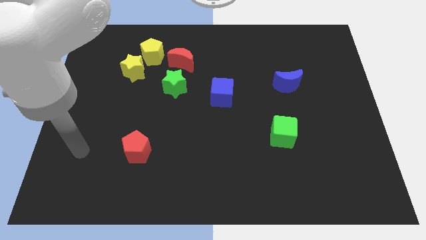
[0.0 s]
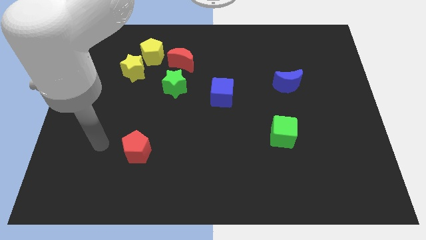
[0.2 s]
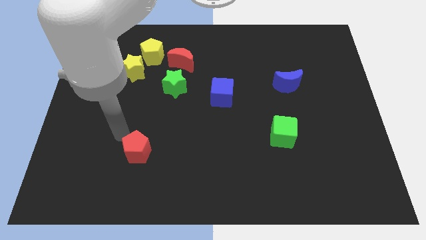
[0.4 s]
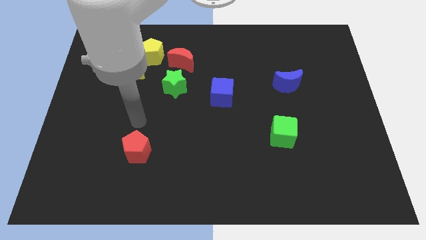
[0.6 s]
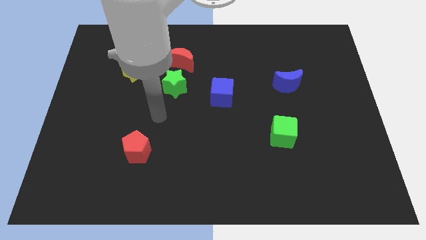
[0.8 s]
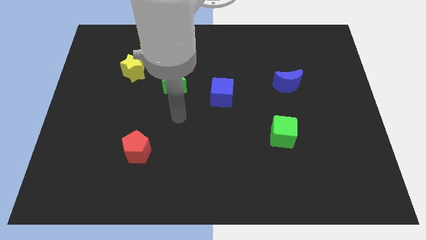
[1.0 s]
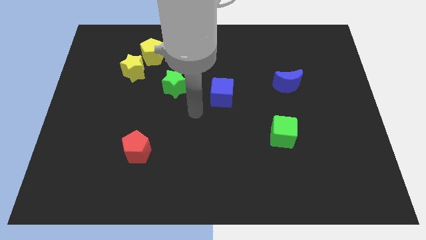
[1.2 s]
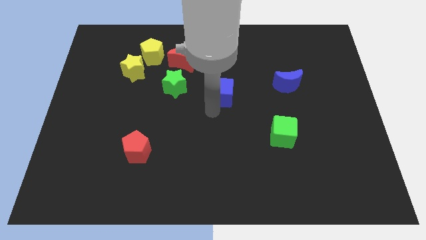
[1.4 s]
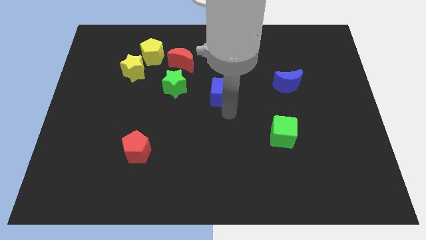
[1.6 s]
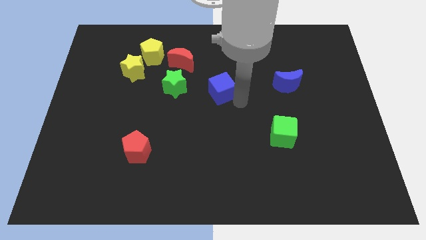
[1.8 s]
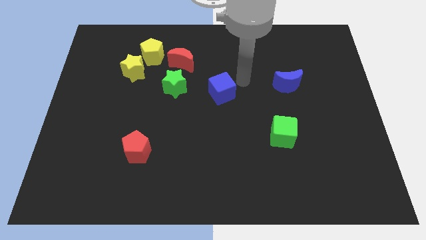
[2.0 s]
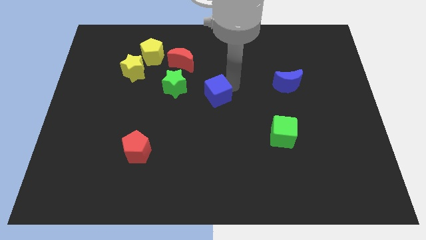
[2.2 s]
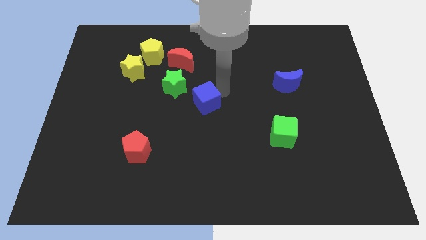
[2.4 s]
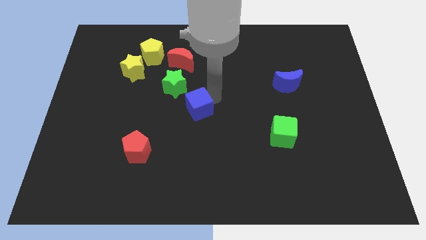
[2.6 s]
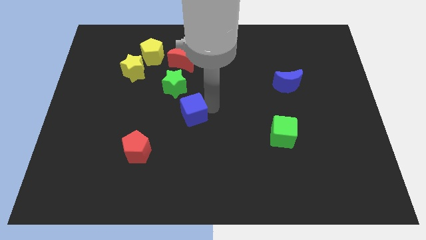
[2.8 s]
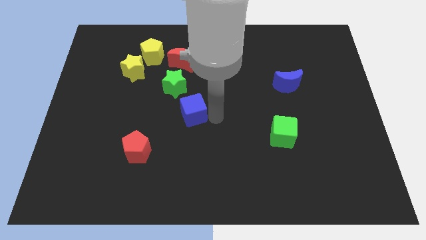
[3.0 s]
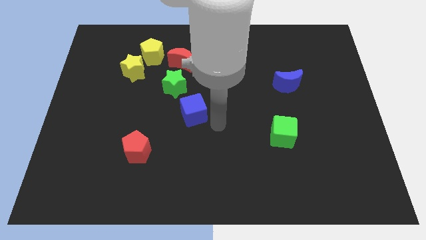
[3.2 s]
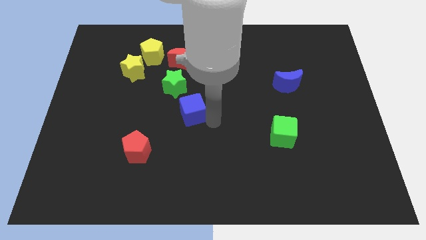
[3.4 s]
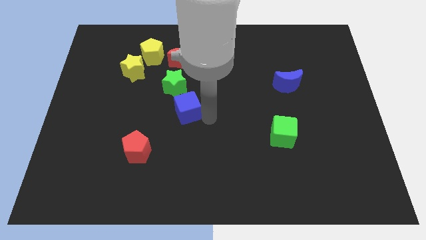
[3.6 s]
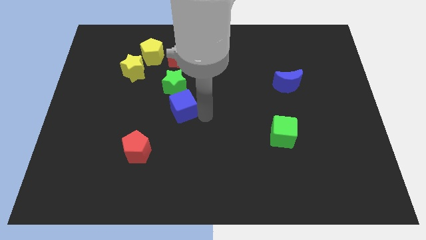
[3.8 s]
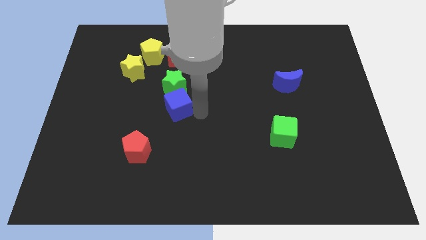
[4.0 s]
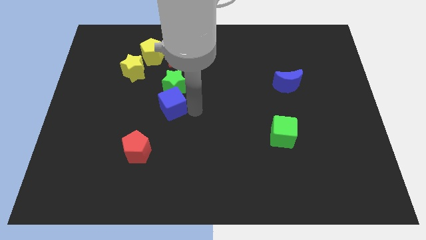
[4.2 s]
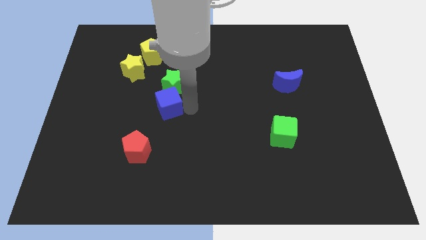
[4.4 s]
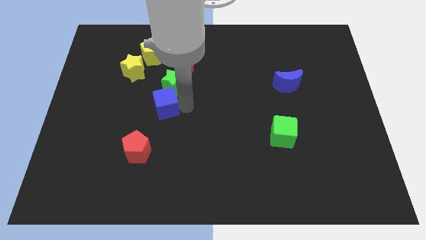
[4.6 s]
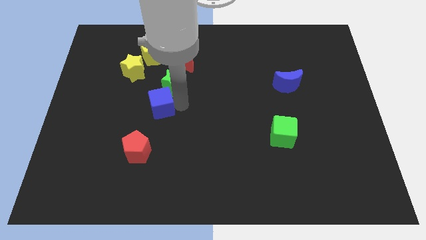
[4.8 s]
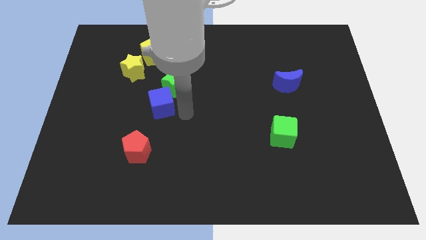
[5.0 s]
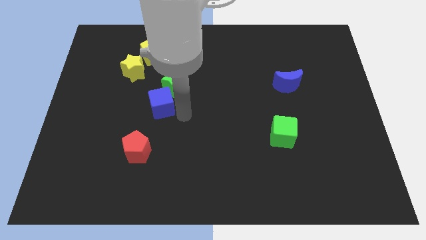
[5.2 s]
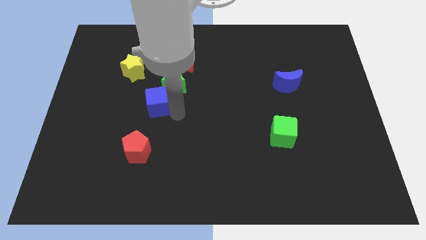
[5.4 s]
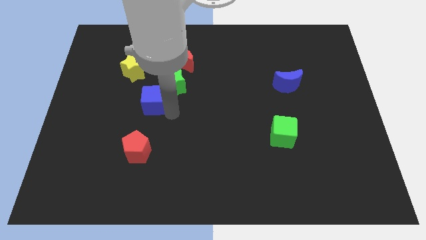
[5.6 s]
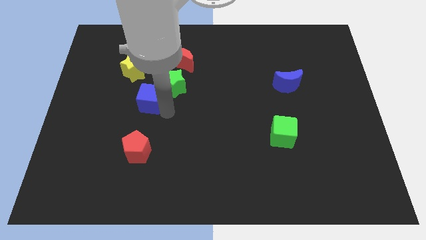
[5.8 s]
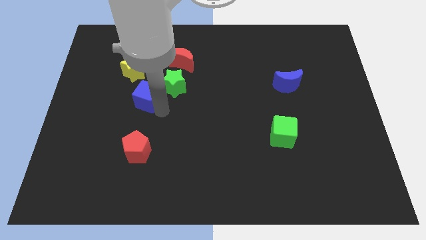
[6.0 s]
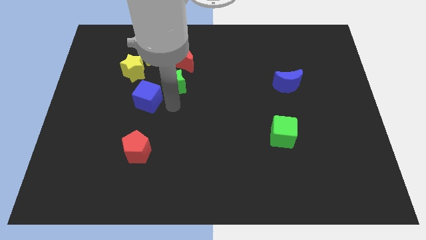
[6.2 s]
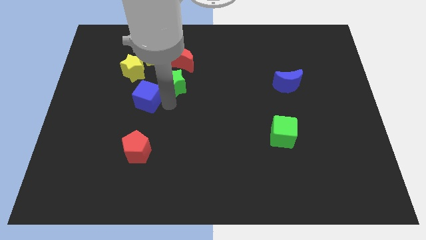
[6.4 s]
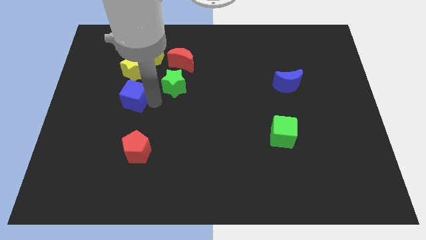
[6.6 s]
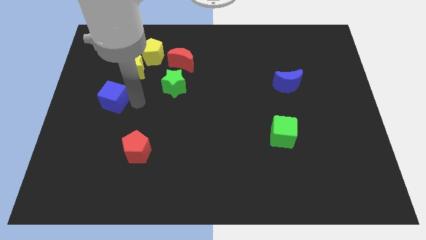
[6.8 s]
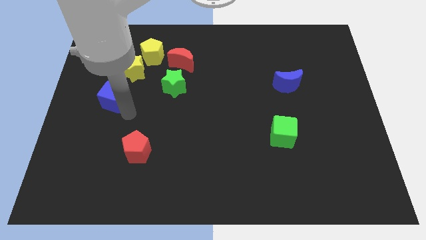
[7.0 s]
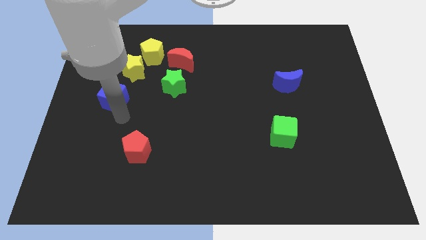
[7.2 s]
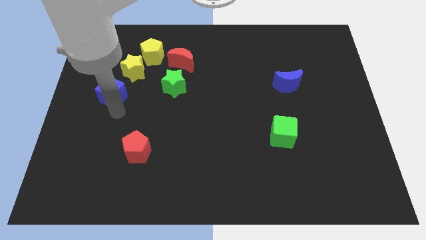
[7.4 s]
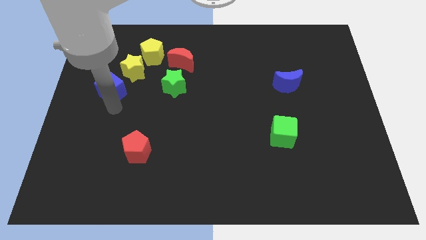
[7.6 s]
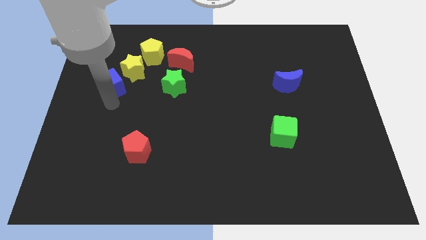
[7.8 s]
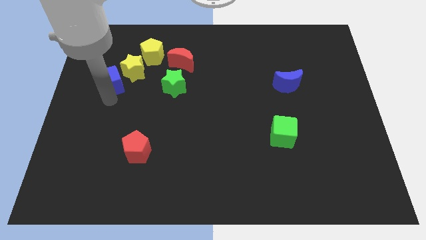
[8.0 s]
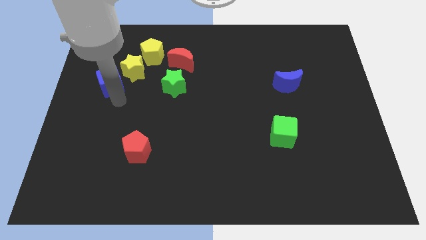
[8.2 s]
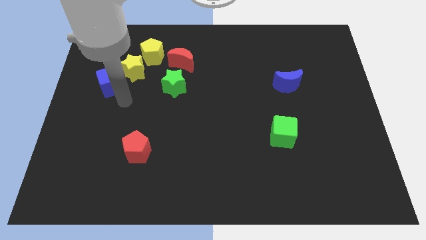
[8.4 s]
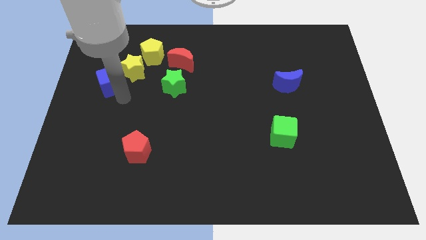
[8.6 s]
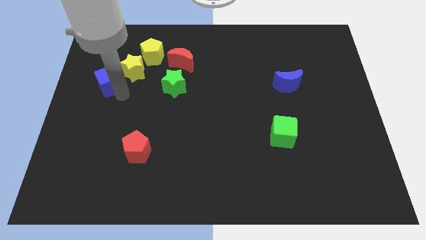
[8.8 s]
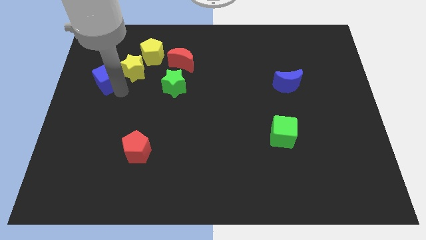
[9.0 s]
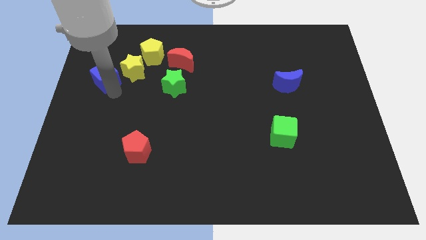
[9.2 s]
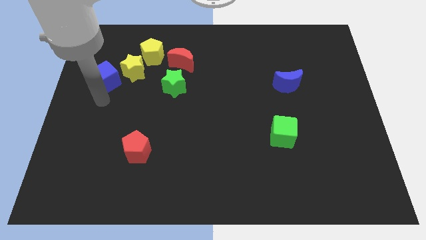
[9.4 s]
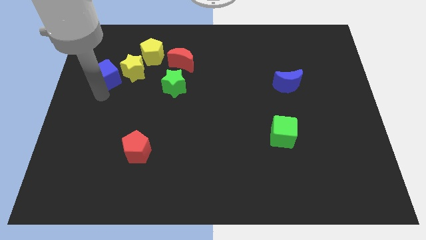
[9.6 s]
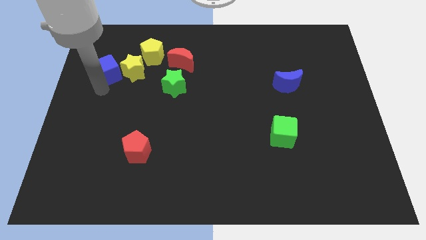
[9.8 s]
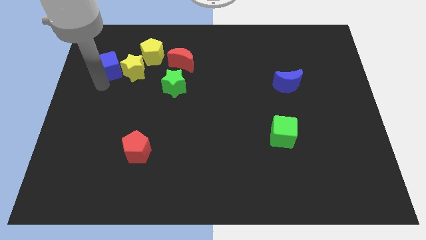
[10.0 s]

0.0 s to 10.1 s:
push the blue cube to the left of the yellow pentagon

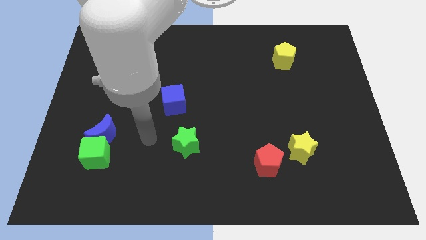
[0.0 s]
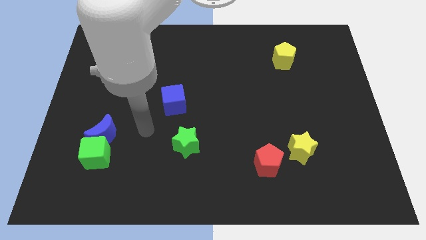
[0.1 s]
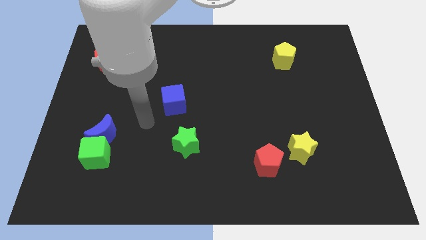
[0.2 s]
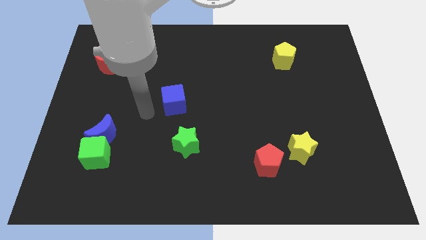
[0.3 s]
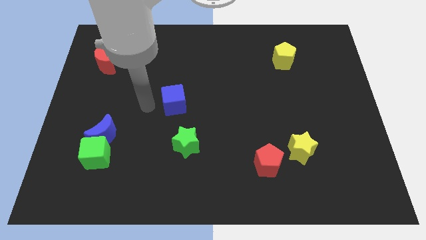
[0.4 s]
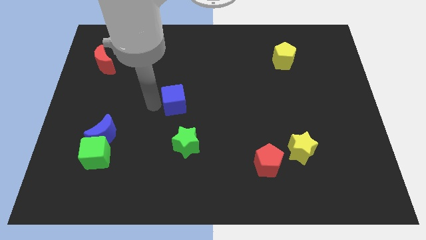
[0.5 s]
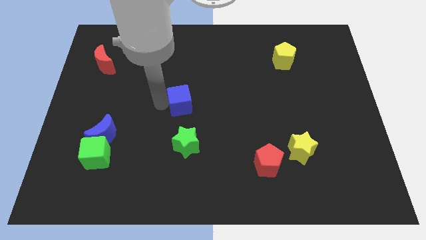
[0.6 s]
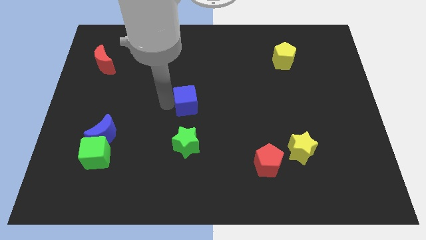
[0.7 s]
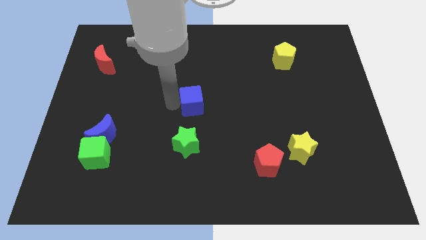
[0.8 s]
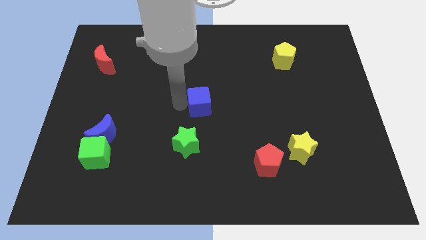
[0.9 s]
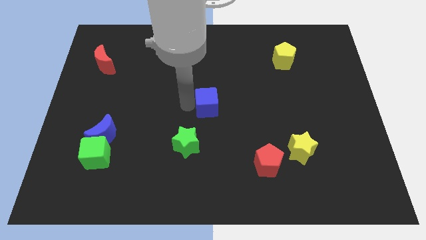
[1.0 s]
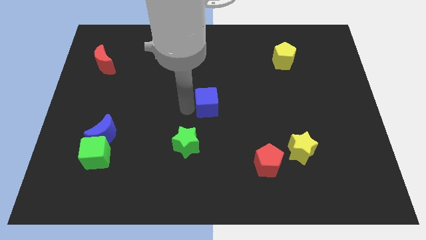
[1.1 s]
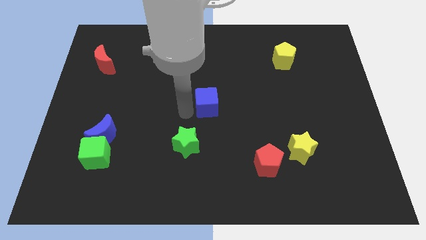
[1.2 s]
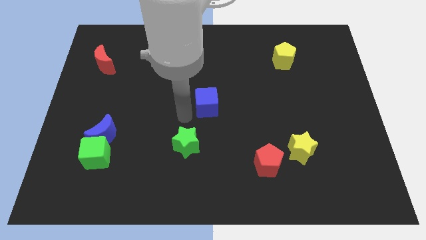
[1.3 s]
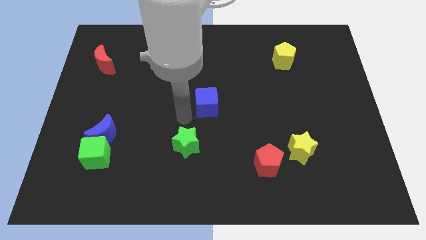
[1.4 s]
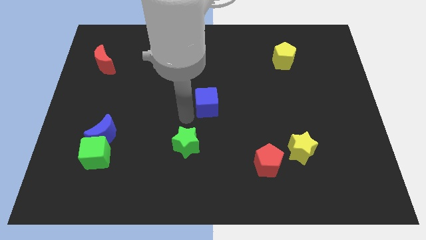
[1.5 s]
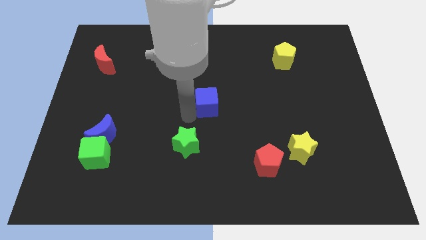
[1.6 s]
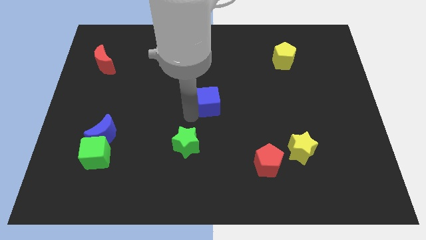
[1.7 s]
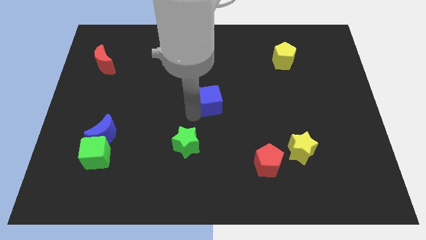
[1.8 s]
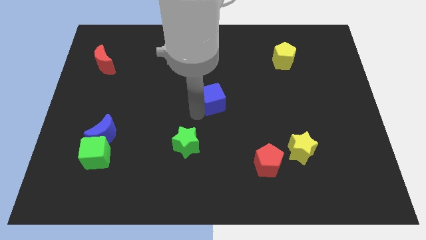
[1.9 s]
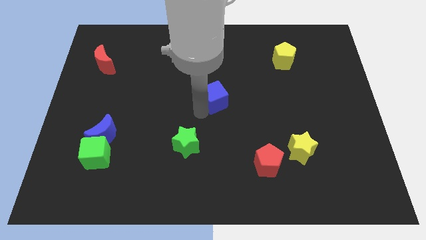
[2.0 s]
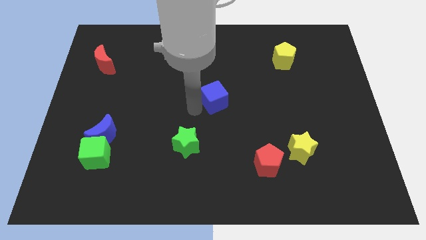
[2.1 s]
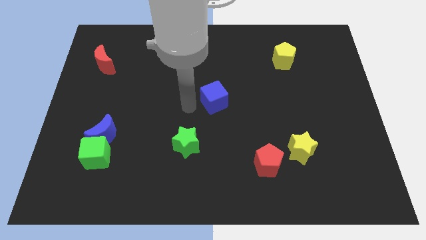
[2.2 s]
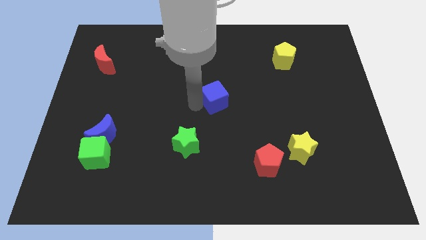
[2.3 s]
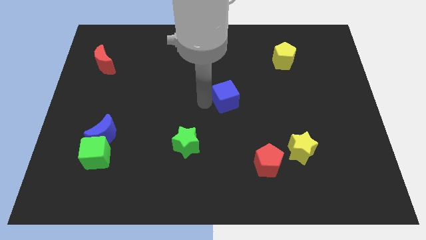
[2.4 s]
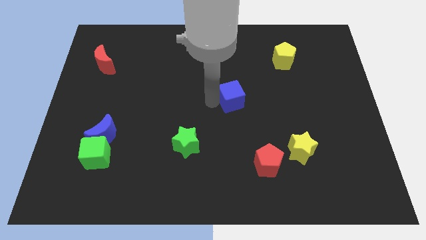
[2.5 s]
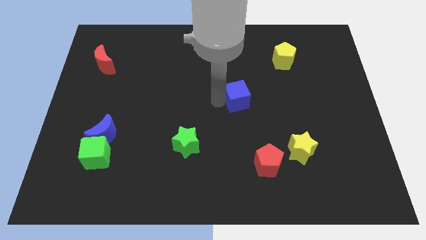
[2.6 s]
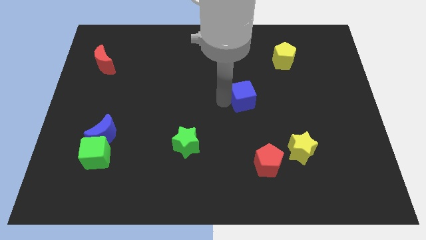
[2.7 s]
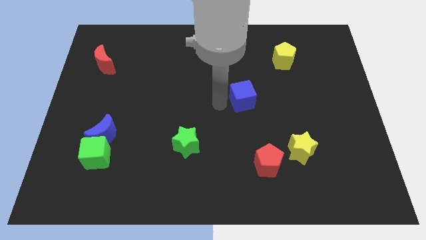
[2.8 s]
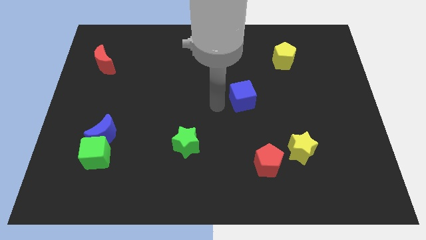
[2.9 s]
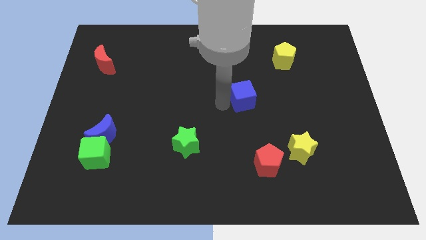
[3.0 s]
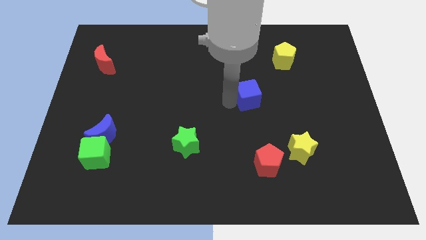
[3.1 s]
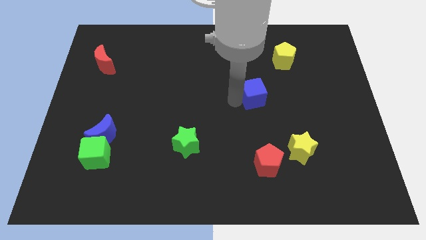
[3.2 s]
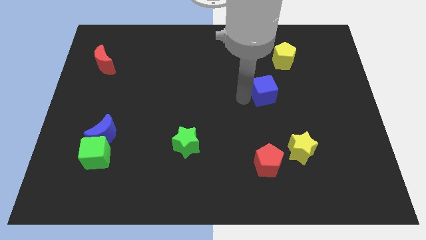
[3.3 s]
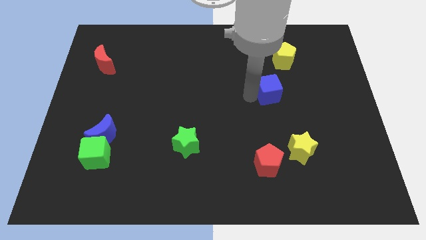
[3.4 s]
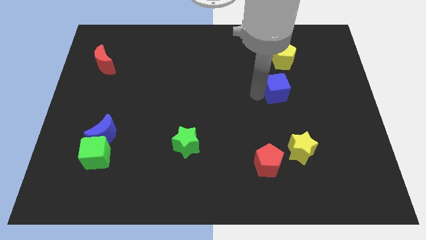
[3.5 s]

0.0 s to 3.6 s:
put the blue cube below the yellow pentagon
